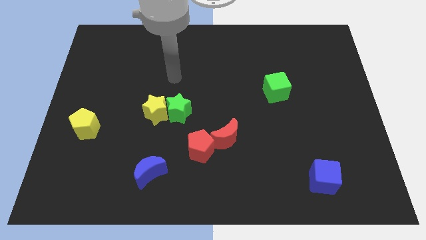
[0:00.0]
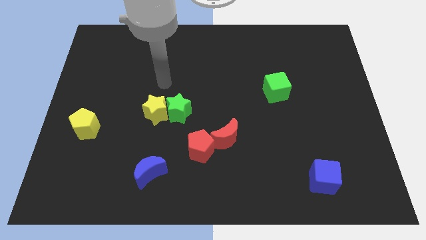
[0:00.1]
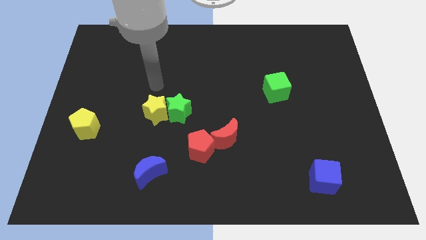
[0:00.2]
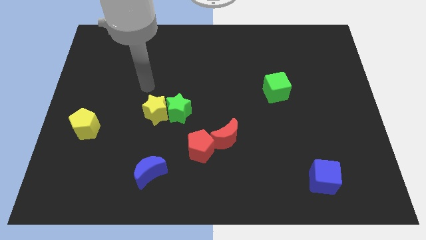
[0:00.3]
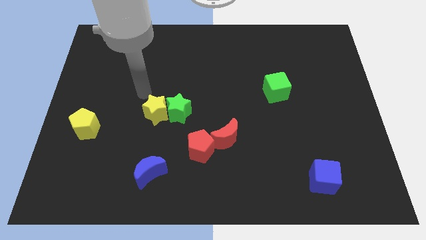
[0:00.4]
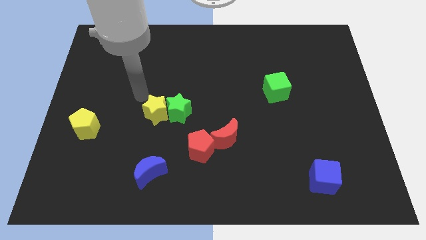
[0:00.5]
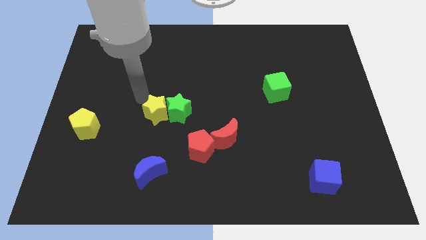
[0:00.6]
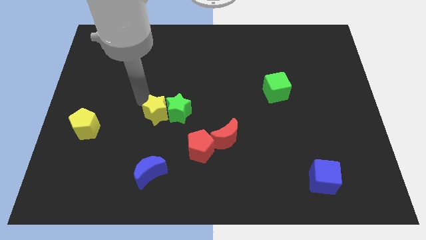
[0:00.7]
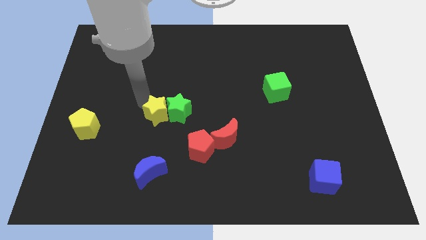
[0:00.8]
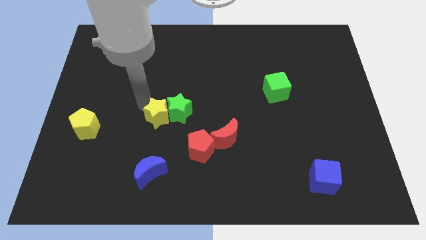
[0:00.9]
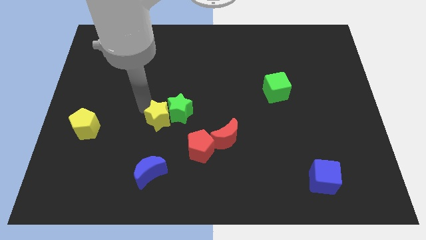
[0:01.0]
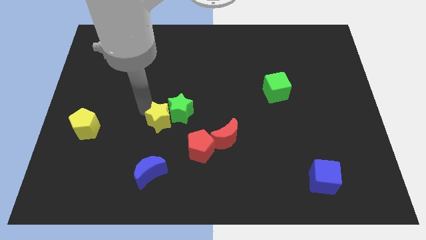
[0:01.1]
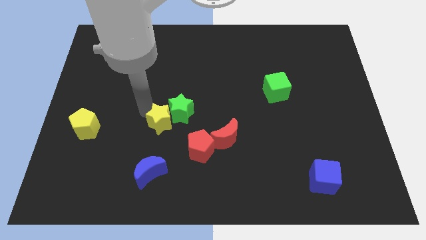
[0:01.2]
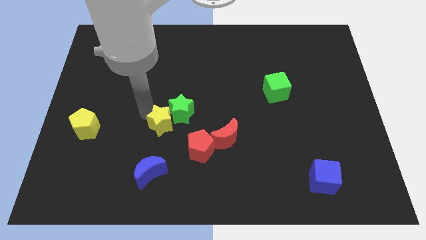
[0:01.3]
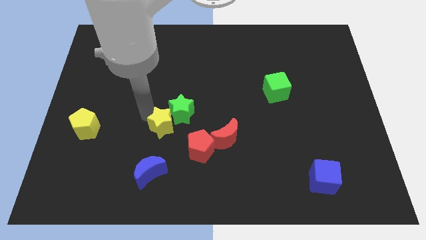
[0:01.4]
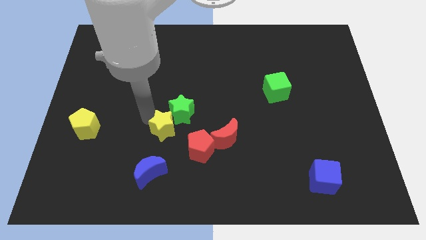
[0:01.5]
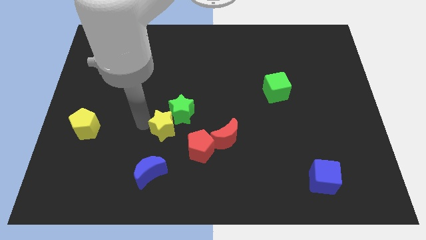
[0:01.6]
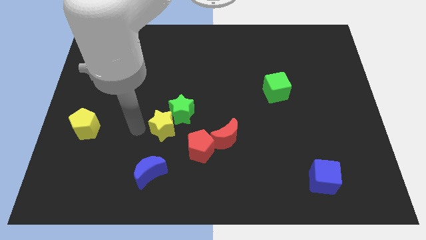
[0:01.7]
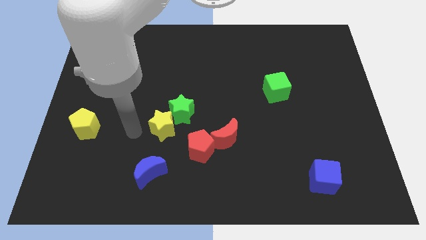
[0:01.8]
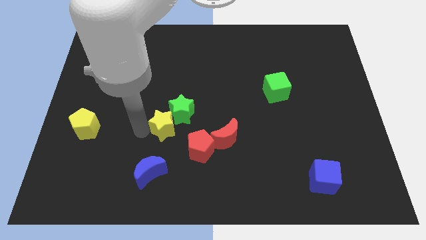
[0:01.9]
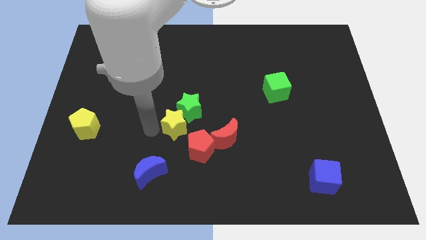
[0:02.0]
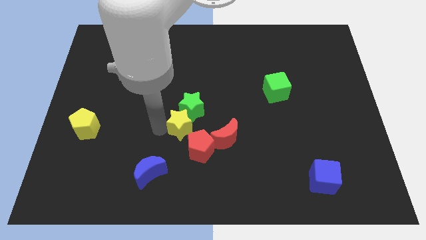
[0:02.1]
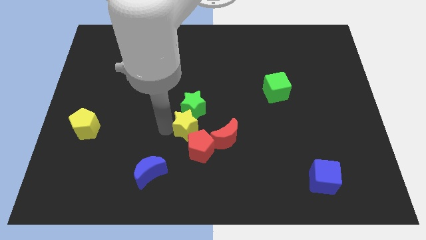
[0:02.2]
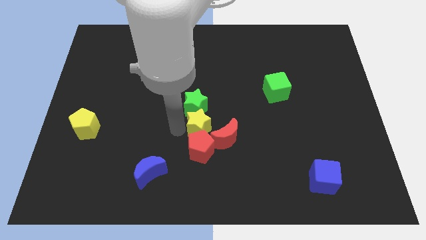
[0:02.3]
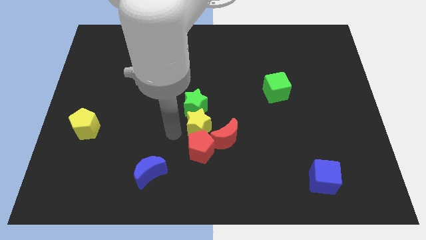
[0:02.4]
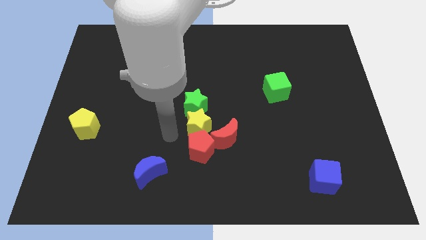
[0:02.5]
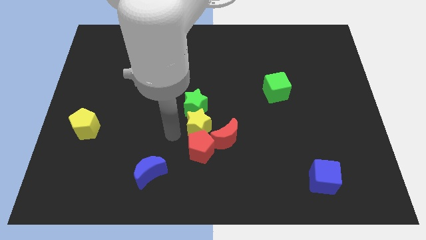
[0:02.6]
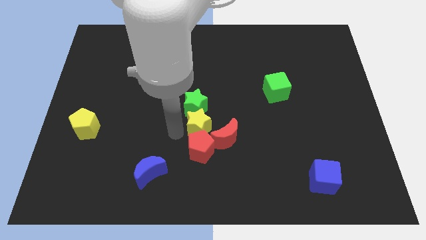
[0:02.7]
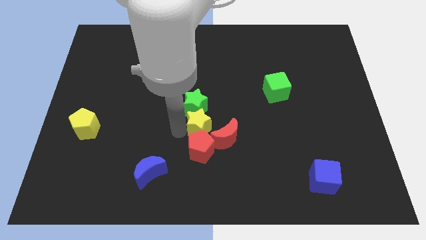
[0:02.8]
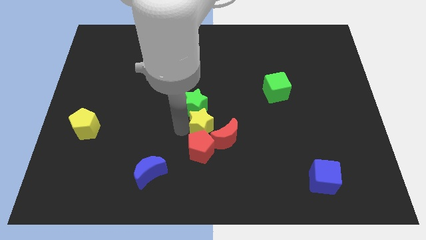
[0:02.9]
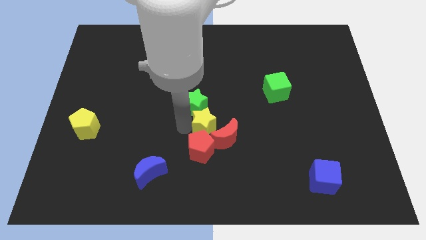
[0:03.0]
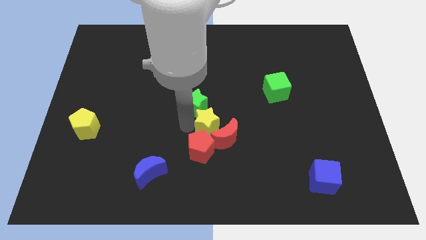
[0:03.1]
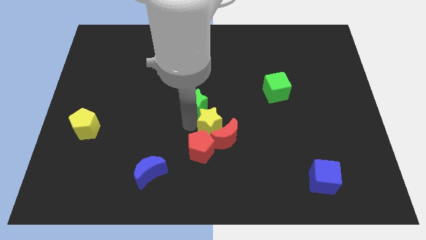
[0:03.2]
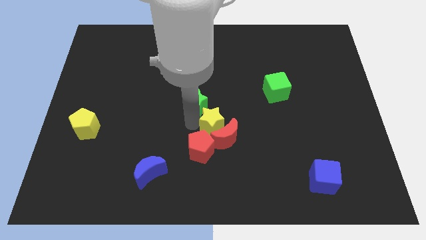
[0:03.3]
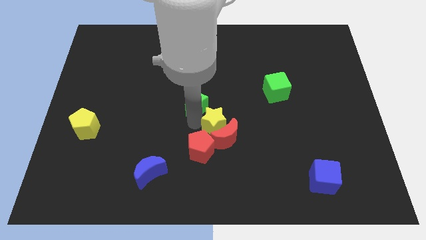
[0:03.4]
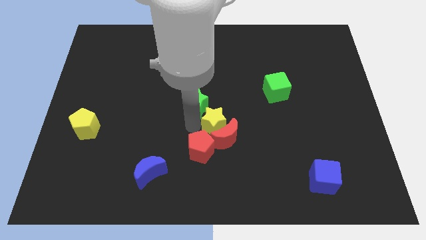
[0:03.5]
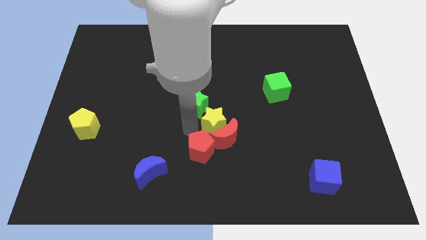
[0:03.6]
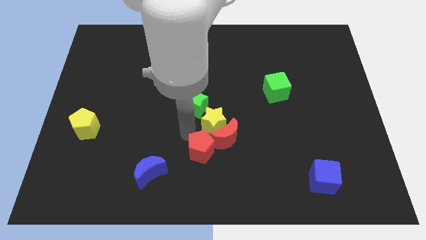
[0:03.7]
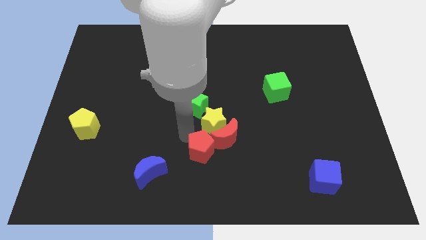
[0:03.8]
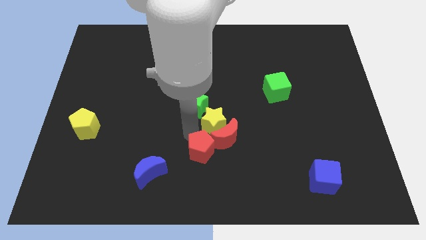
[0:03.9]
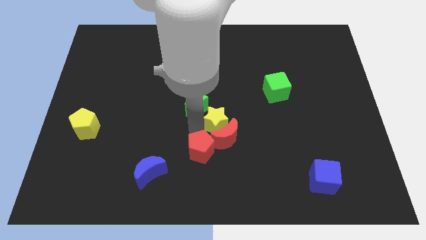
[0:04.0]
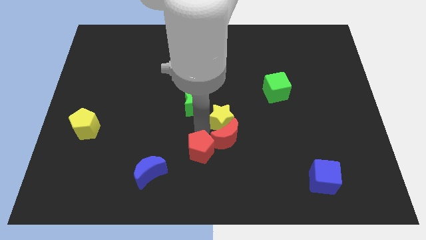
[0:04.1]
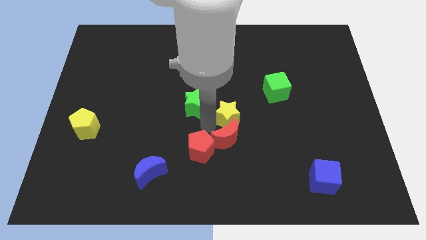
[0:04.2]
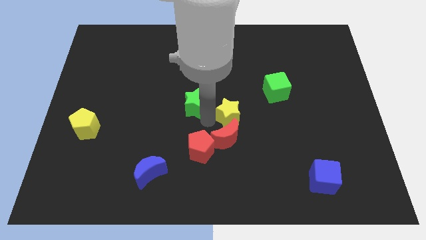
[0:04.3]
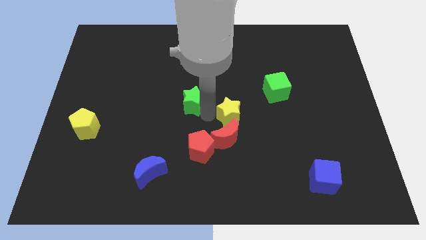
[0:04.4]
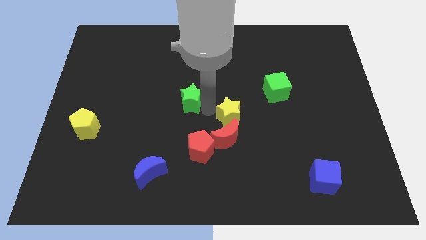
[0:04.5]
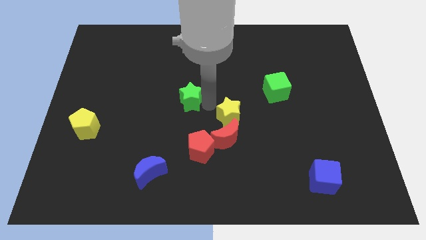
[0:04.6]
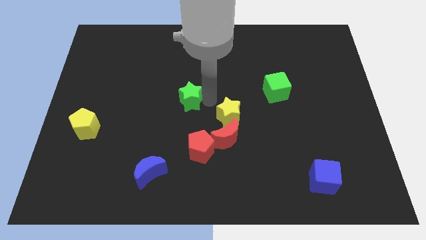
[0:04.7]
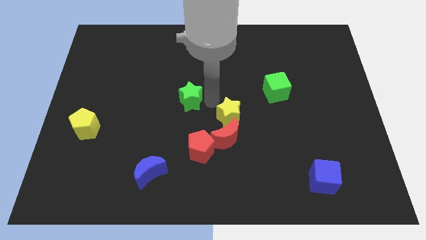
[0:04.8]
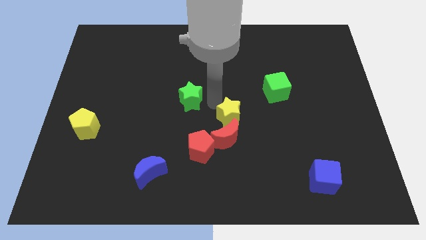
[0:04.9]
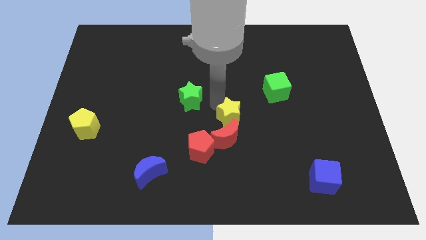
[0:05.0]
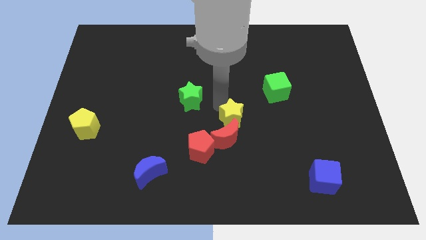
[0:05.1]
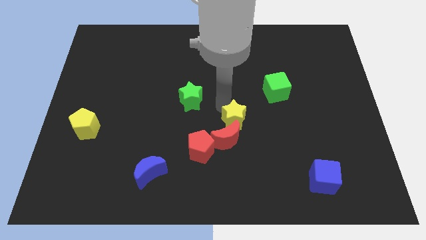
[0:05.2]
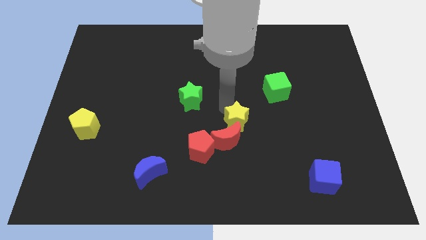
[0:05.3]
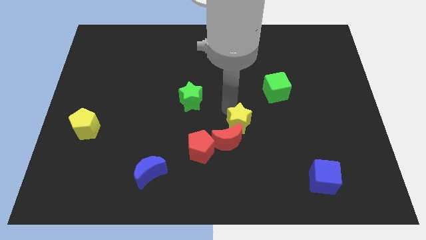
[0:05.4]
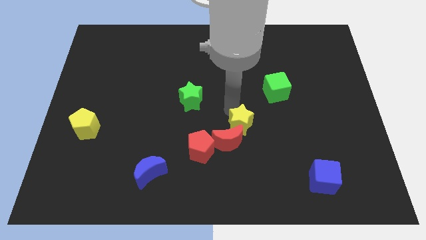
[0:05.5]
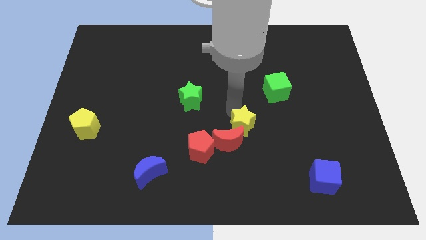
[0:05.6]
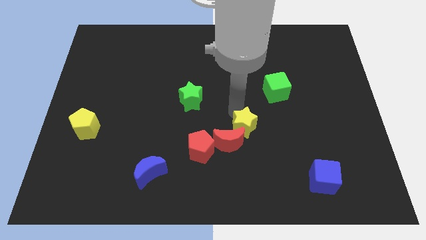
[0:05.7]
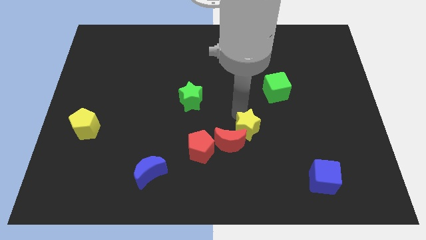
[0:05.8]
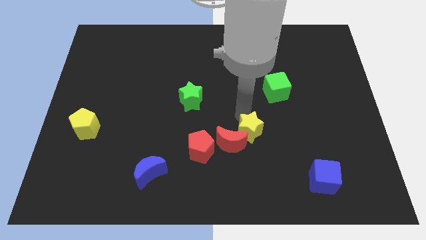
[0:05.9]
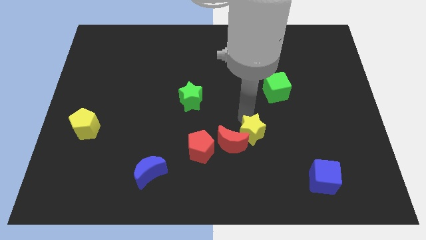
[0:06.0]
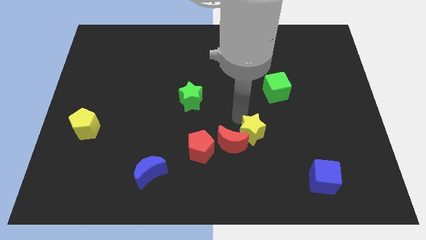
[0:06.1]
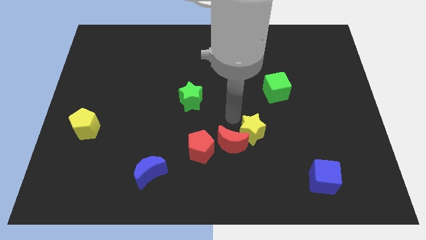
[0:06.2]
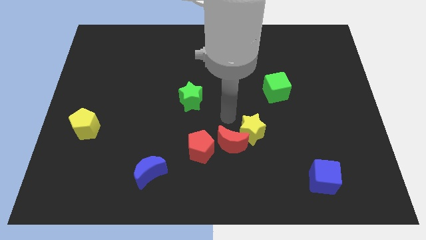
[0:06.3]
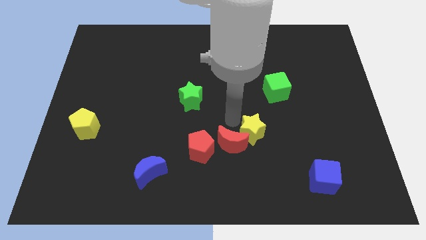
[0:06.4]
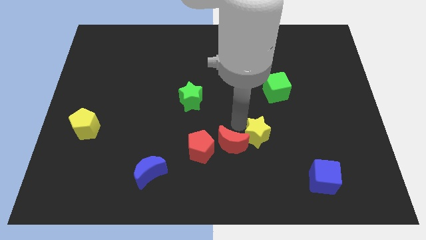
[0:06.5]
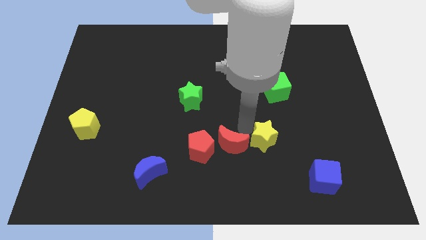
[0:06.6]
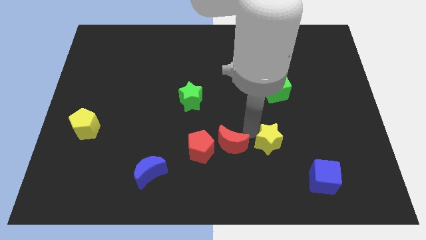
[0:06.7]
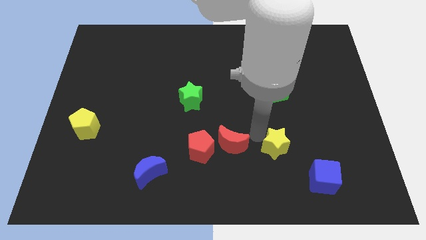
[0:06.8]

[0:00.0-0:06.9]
slide the yellow star to the top left of the blue cube

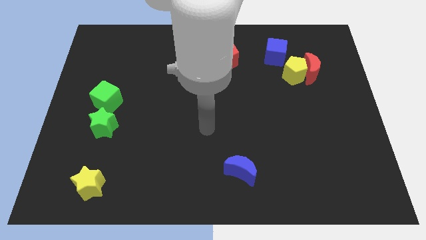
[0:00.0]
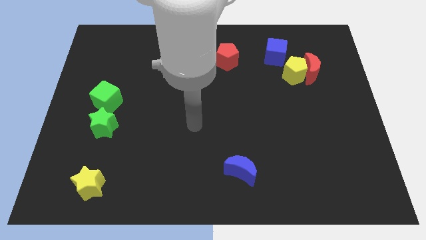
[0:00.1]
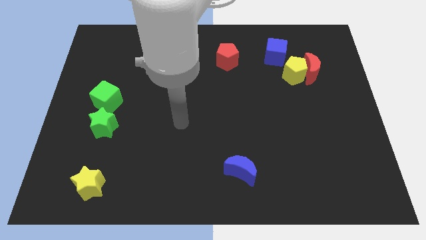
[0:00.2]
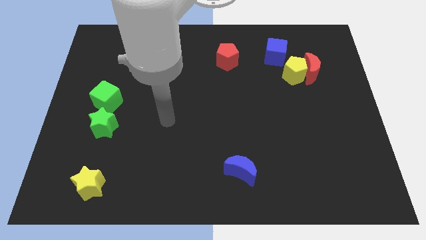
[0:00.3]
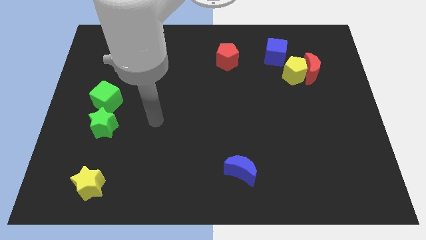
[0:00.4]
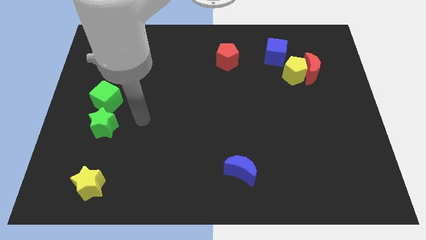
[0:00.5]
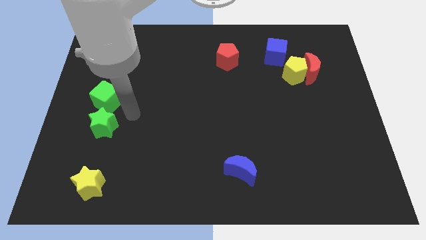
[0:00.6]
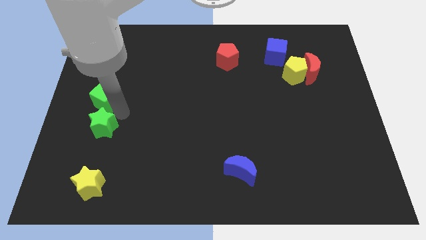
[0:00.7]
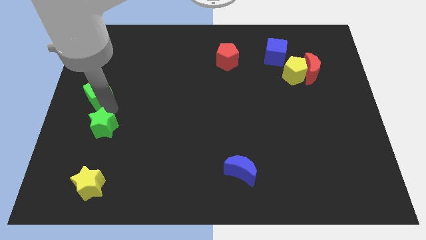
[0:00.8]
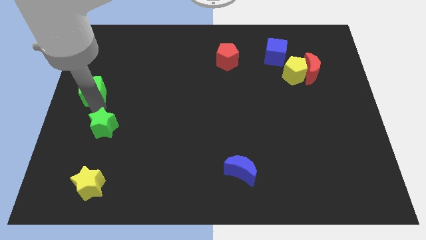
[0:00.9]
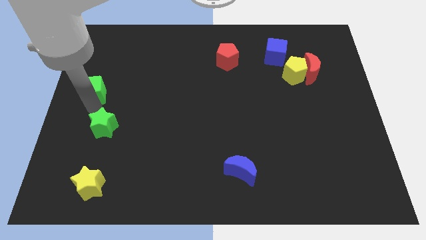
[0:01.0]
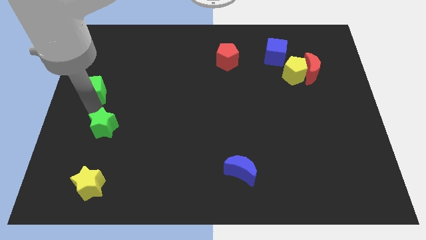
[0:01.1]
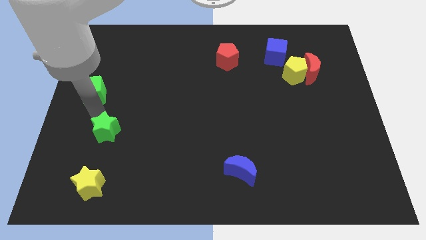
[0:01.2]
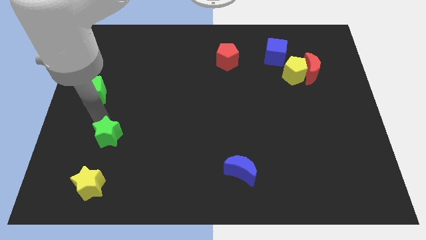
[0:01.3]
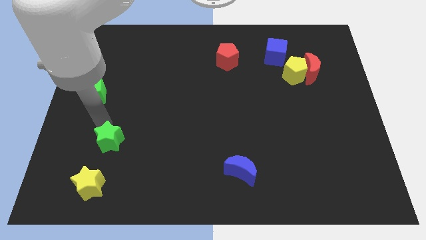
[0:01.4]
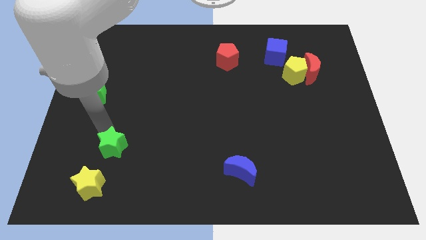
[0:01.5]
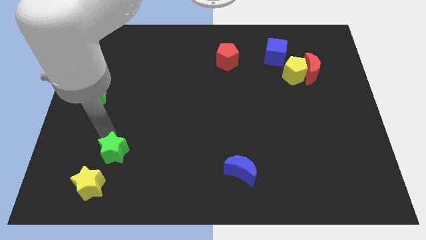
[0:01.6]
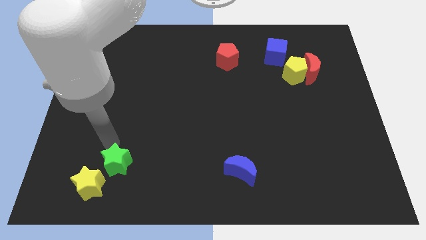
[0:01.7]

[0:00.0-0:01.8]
put the green star to the right side of the yellow star
